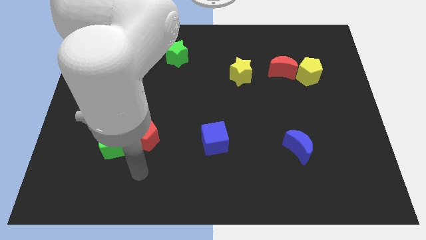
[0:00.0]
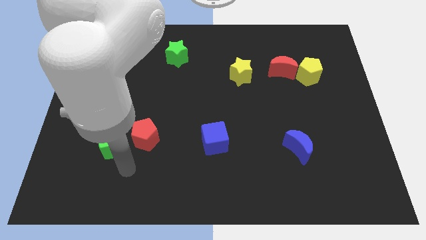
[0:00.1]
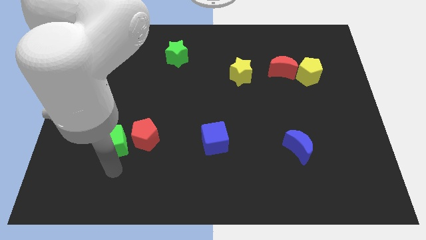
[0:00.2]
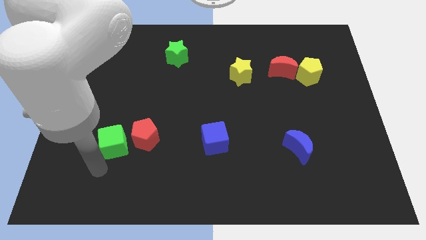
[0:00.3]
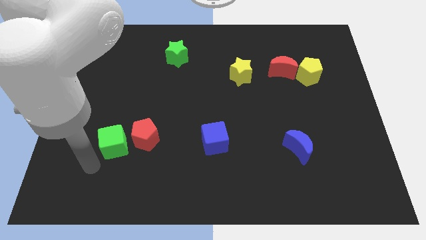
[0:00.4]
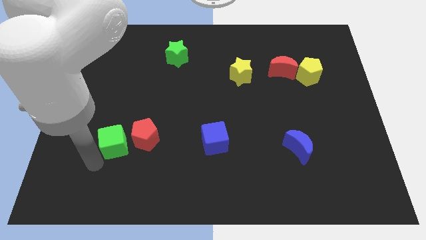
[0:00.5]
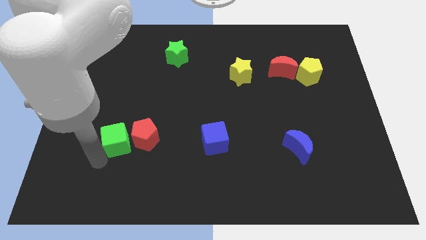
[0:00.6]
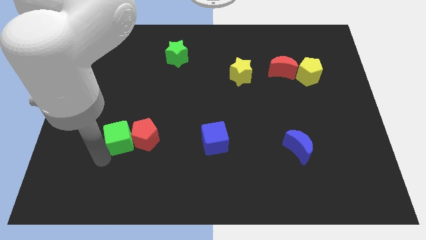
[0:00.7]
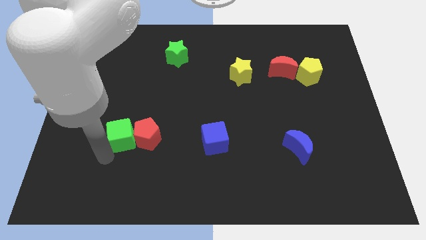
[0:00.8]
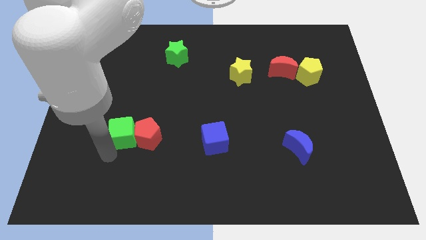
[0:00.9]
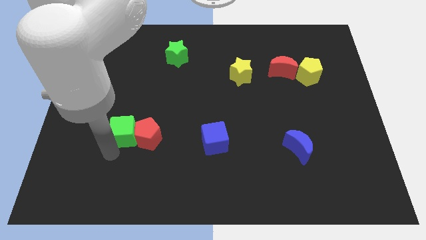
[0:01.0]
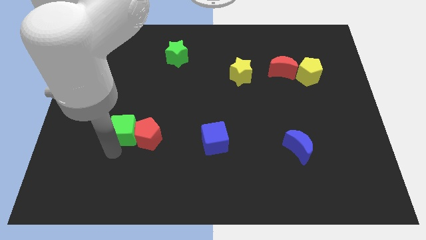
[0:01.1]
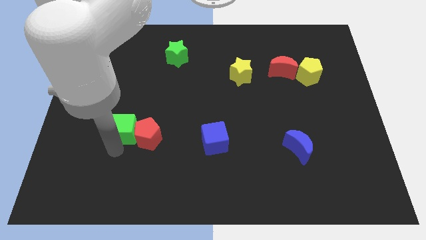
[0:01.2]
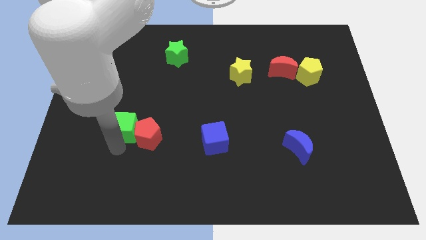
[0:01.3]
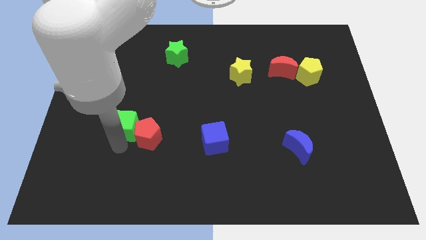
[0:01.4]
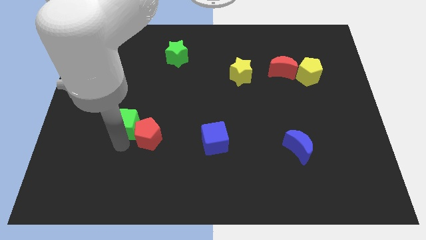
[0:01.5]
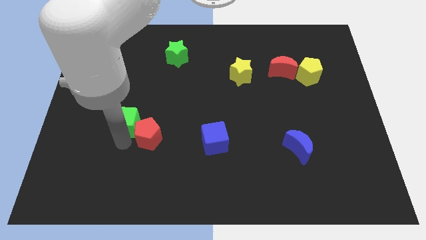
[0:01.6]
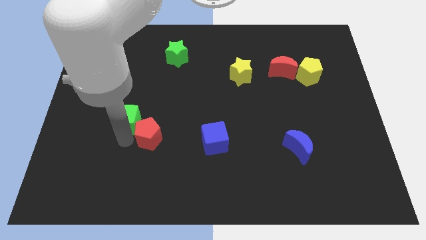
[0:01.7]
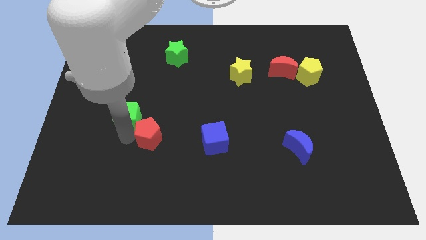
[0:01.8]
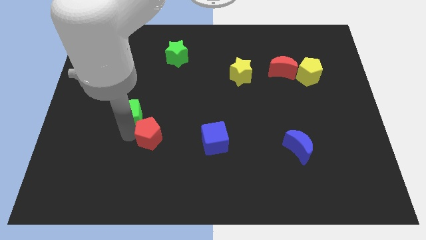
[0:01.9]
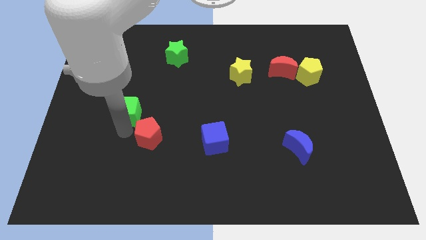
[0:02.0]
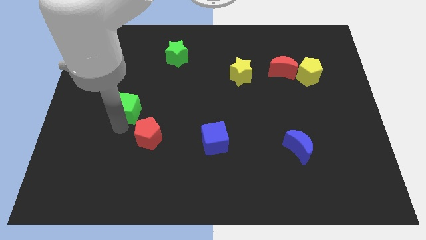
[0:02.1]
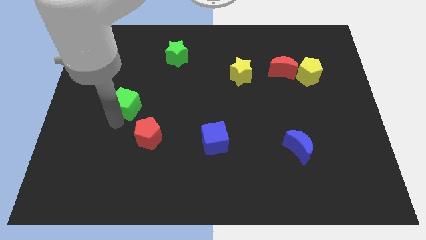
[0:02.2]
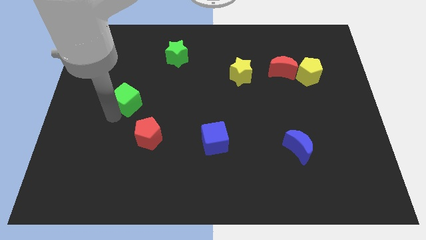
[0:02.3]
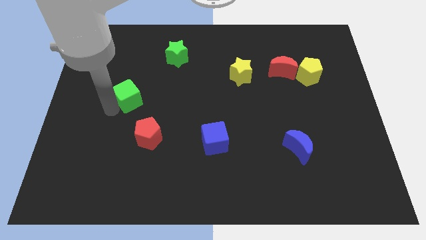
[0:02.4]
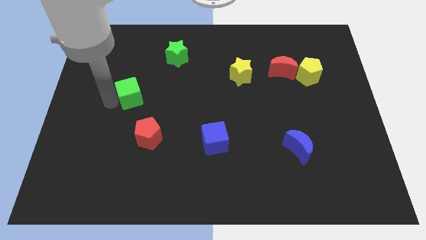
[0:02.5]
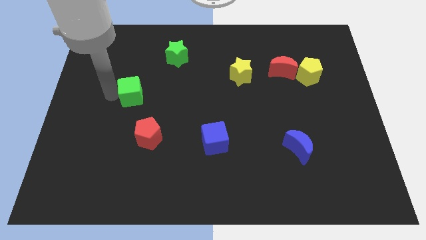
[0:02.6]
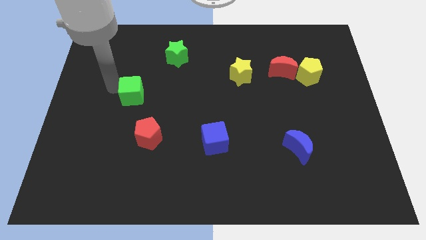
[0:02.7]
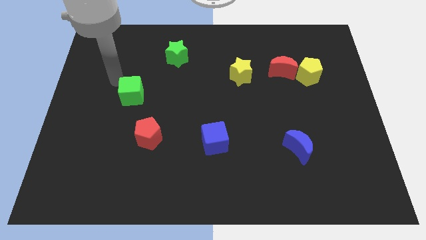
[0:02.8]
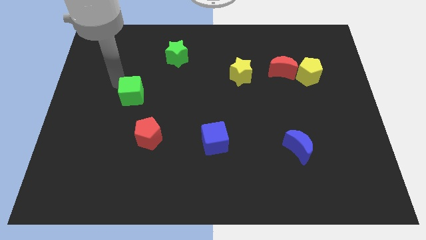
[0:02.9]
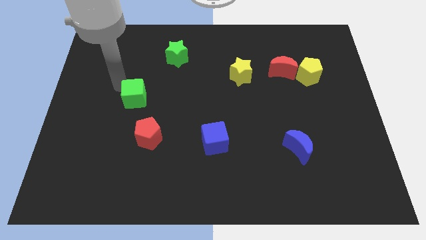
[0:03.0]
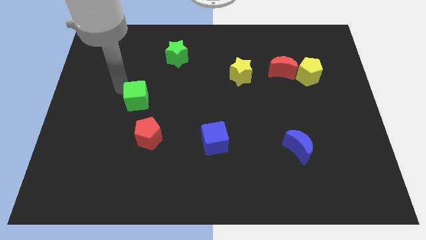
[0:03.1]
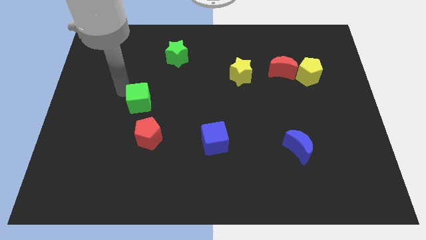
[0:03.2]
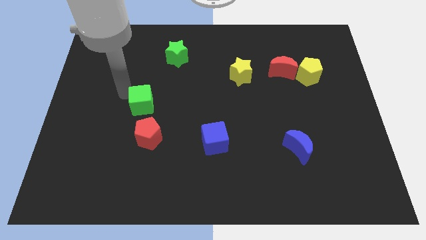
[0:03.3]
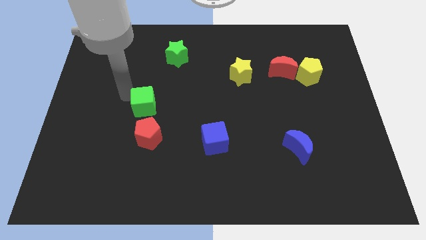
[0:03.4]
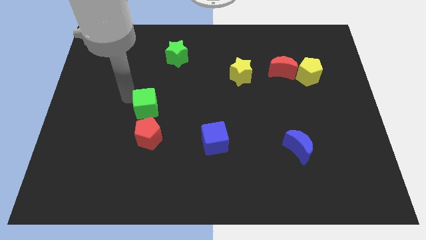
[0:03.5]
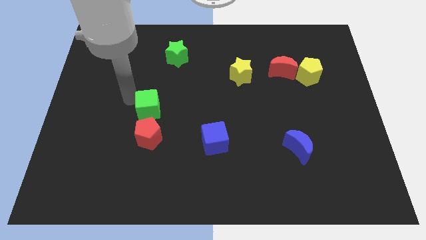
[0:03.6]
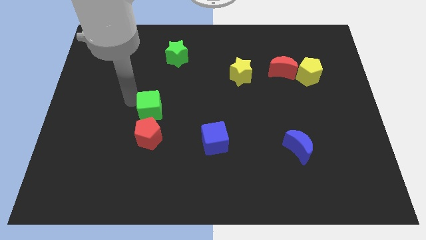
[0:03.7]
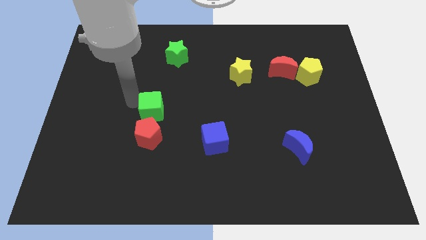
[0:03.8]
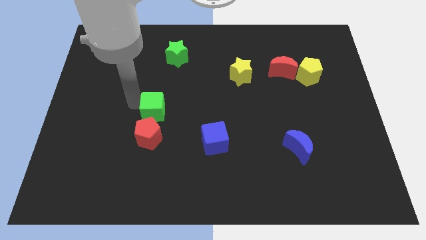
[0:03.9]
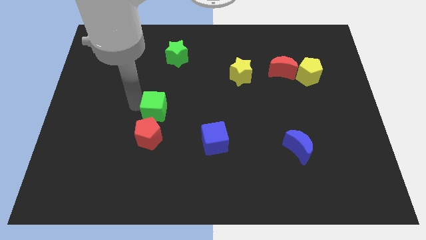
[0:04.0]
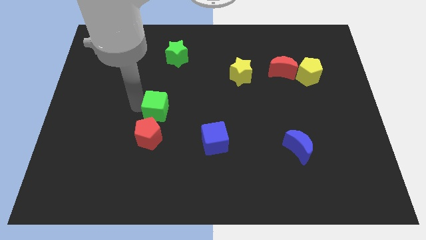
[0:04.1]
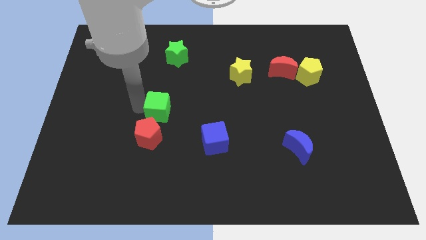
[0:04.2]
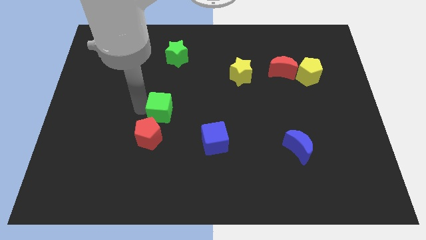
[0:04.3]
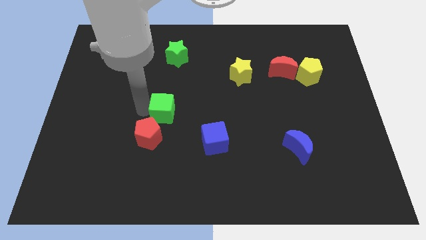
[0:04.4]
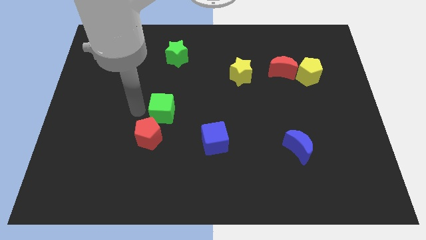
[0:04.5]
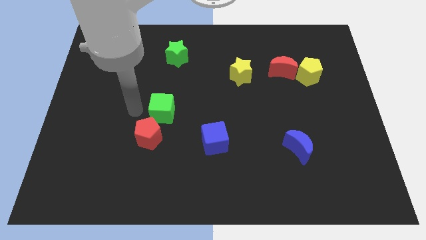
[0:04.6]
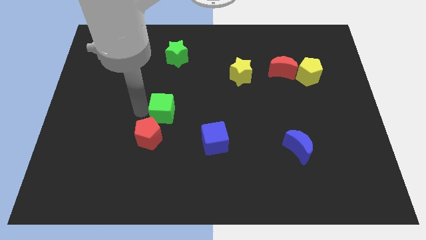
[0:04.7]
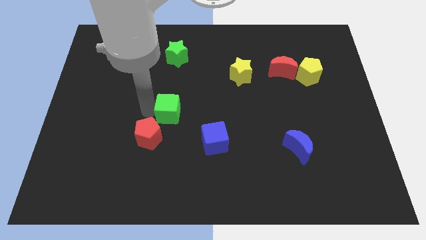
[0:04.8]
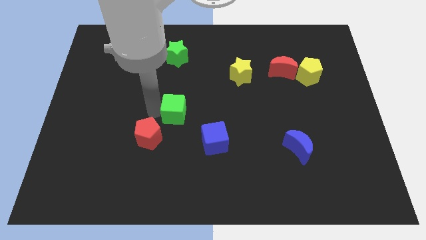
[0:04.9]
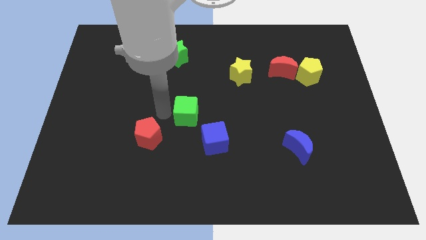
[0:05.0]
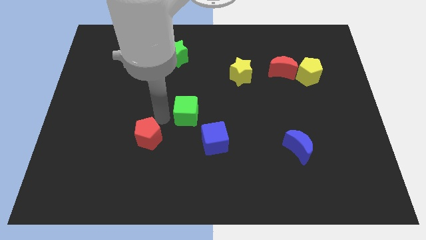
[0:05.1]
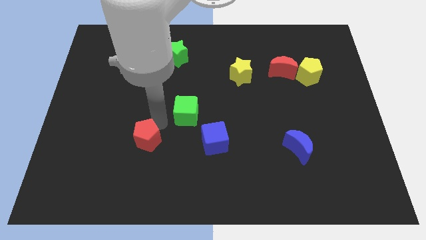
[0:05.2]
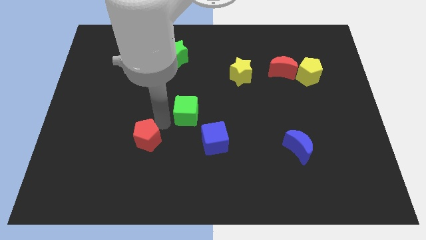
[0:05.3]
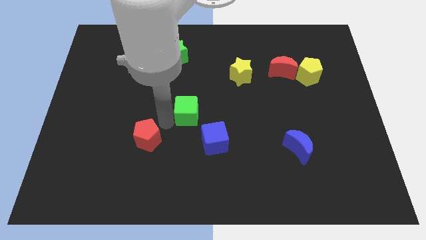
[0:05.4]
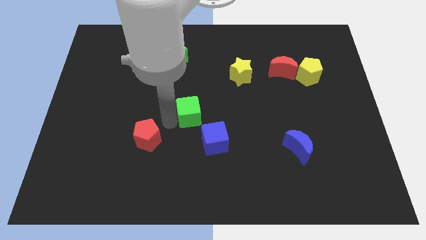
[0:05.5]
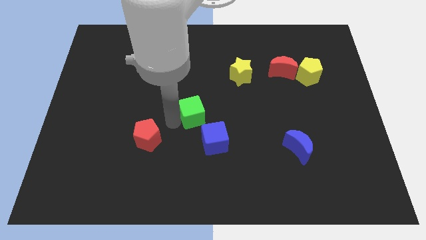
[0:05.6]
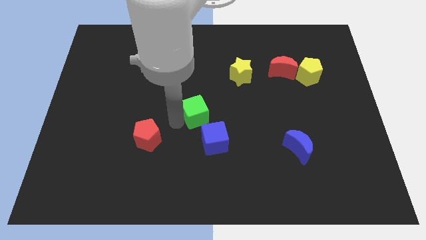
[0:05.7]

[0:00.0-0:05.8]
slide the green cube above the blue cube

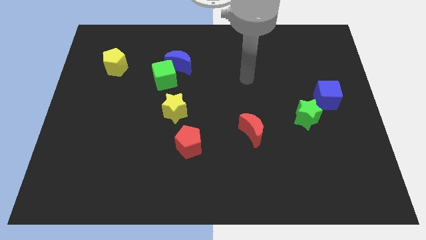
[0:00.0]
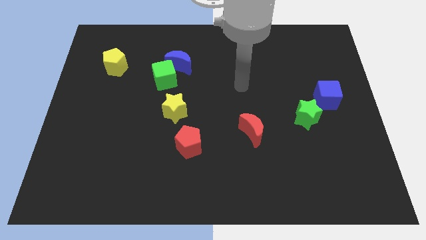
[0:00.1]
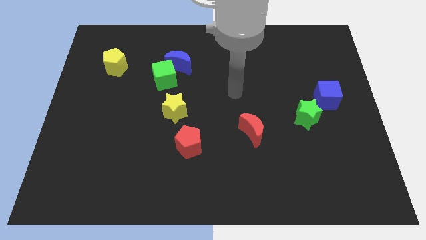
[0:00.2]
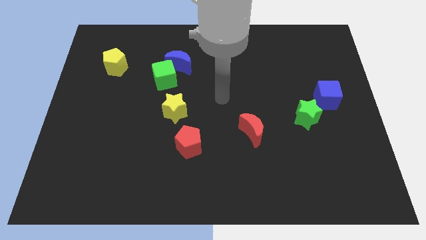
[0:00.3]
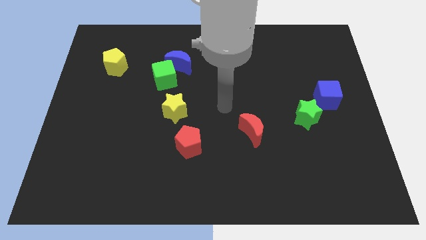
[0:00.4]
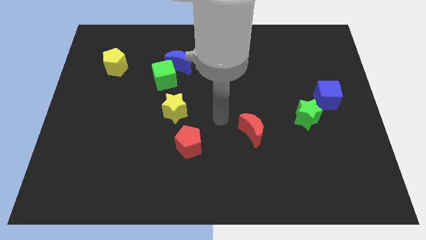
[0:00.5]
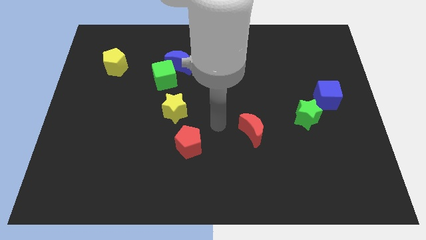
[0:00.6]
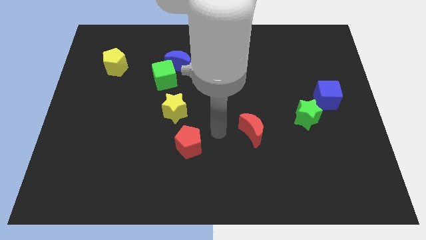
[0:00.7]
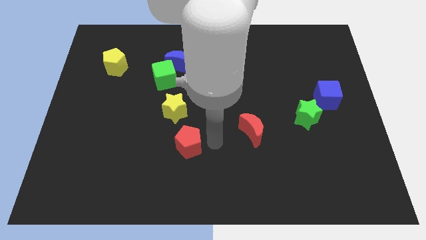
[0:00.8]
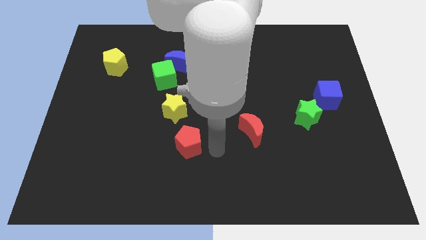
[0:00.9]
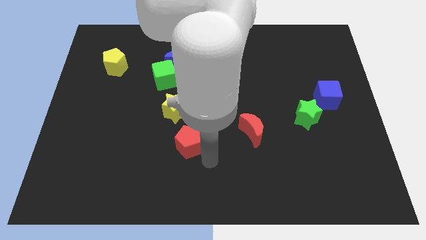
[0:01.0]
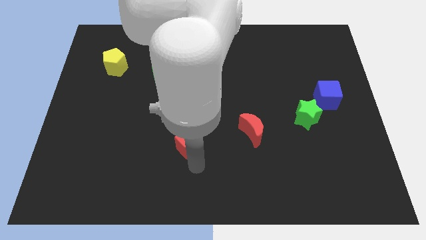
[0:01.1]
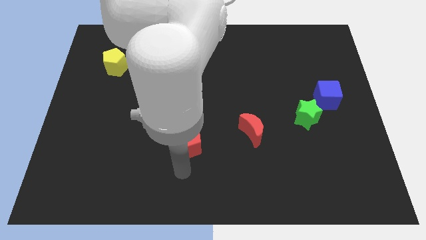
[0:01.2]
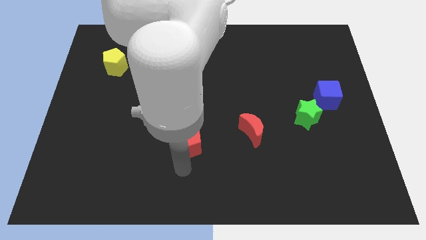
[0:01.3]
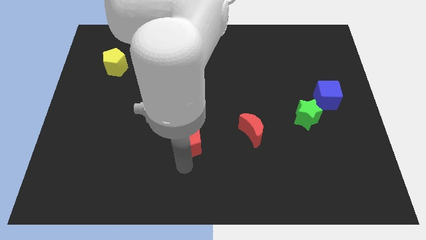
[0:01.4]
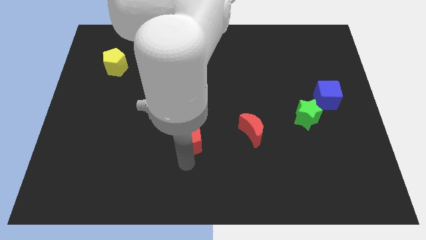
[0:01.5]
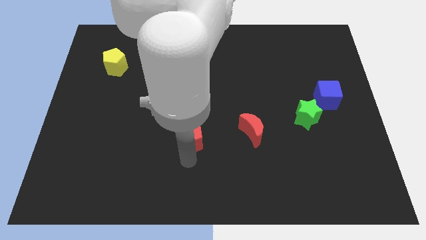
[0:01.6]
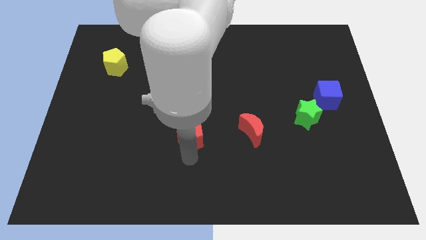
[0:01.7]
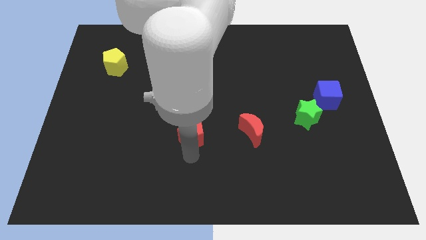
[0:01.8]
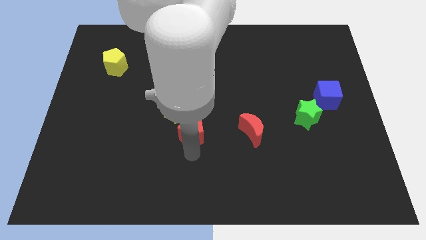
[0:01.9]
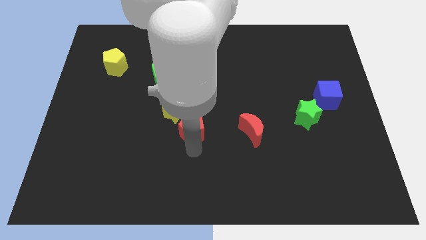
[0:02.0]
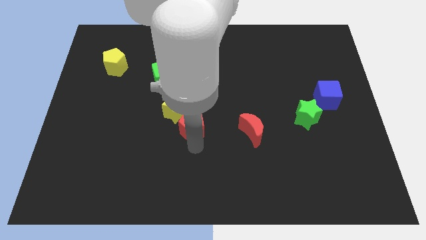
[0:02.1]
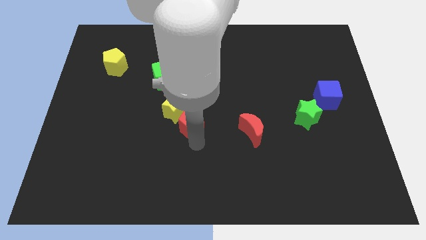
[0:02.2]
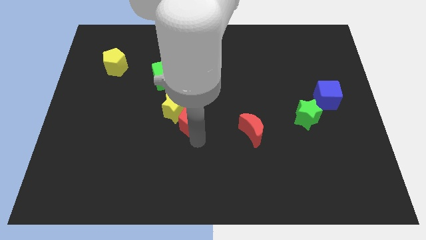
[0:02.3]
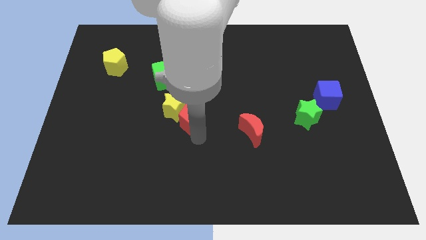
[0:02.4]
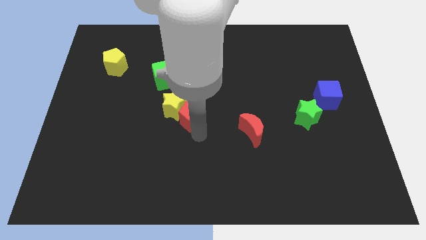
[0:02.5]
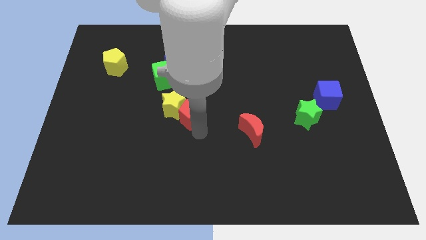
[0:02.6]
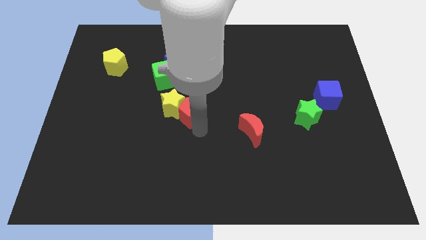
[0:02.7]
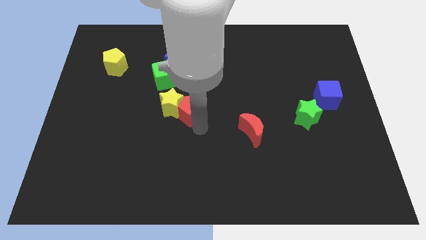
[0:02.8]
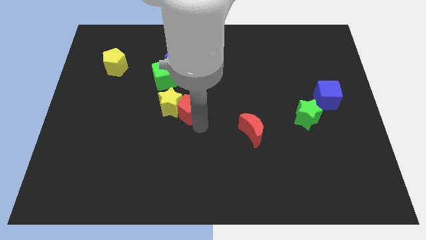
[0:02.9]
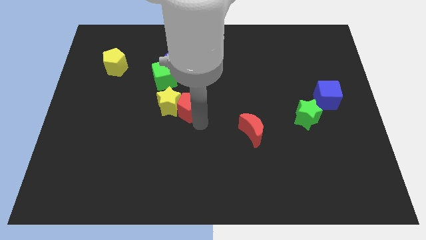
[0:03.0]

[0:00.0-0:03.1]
move the red pentagon to the bottom right side of the green cube
